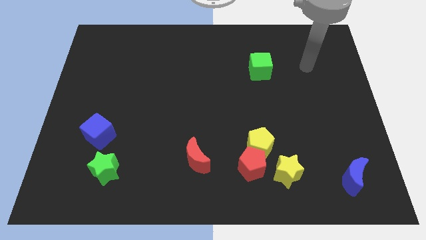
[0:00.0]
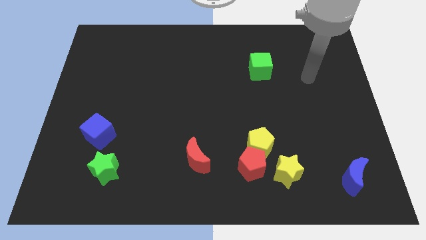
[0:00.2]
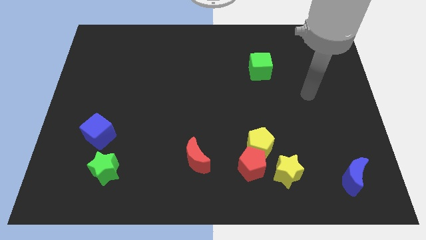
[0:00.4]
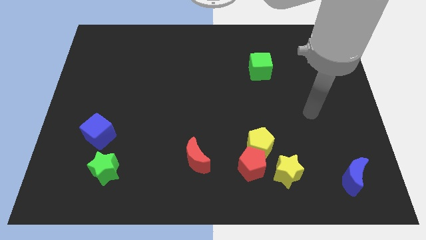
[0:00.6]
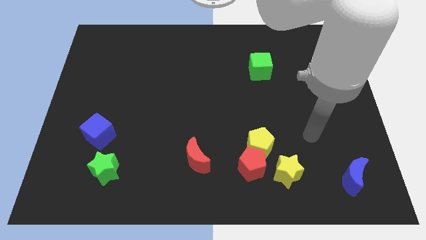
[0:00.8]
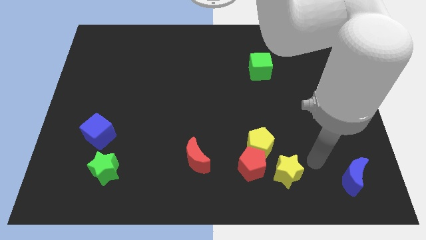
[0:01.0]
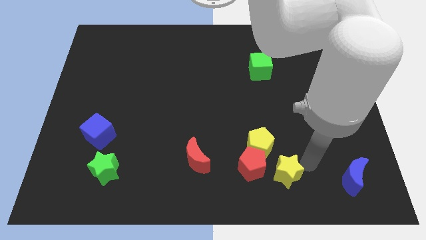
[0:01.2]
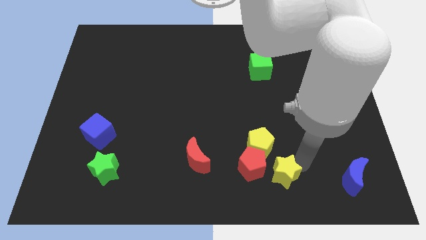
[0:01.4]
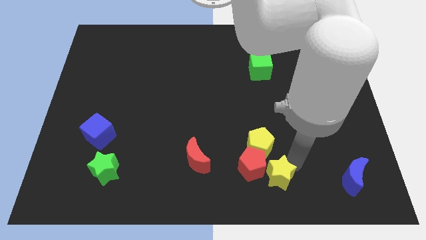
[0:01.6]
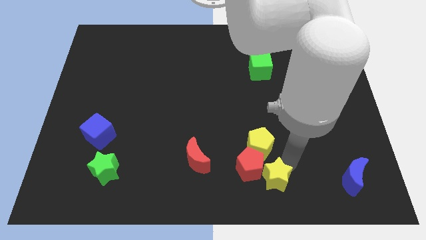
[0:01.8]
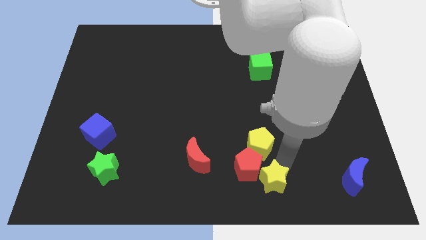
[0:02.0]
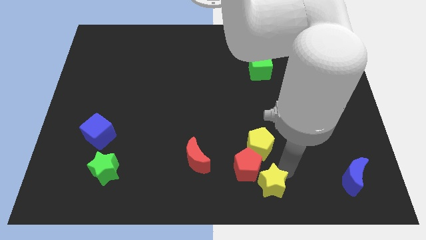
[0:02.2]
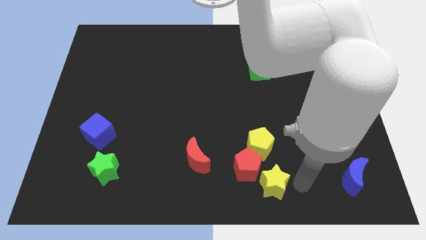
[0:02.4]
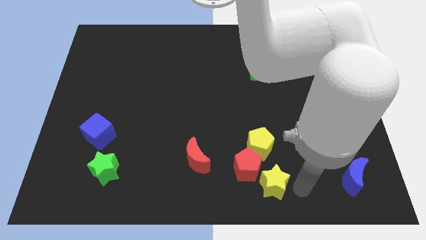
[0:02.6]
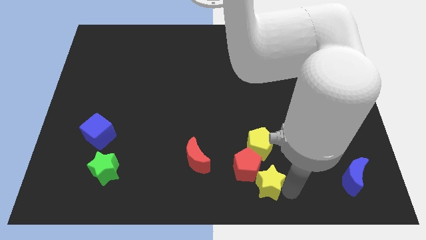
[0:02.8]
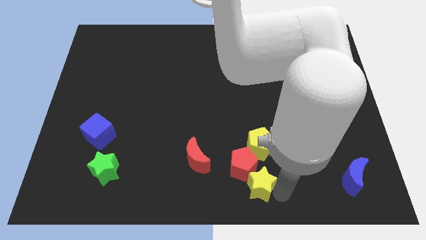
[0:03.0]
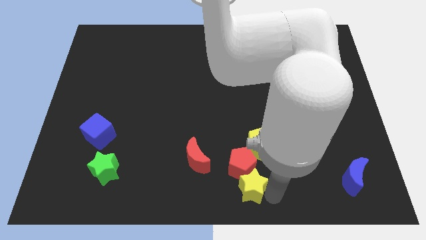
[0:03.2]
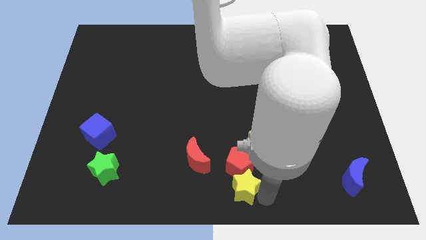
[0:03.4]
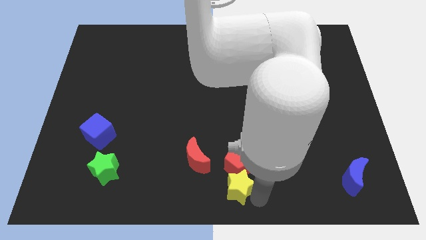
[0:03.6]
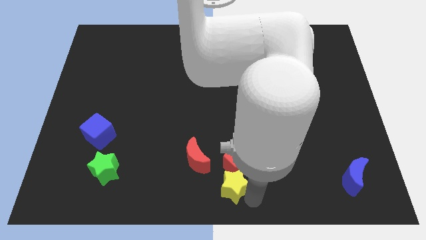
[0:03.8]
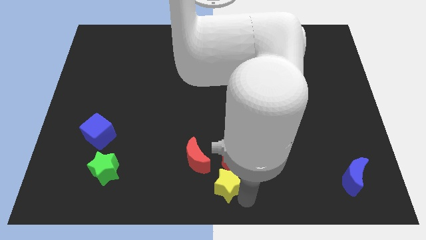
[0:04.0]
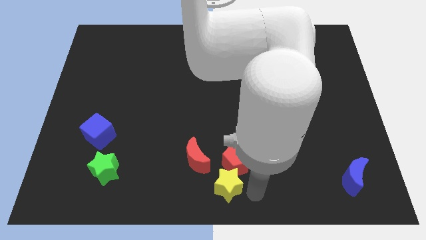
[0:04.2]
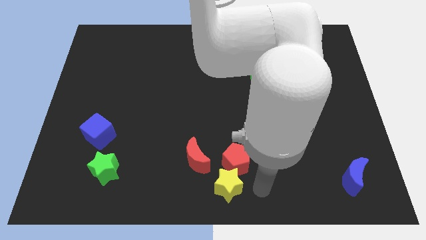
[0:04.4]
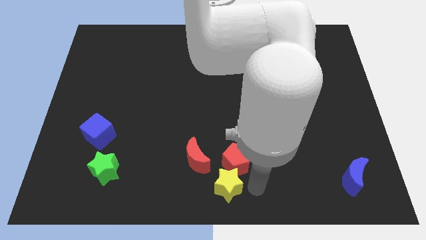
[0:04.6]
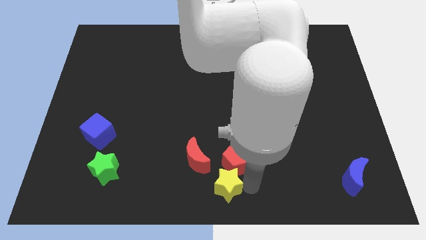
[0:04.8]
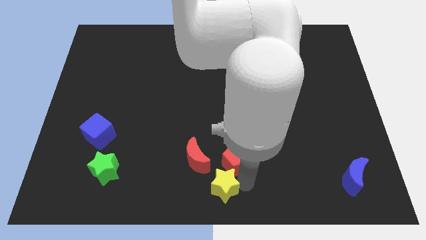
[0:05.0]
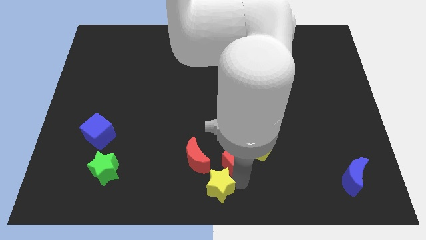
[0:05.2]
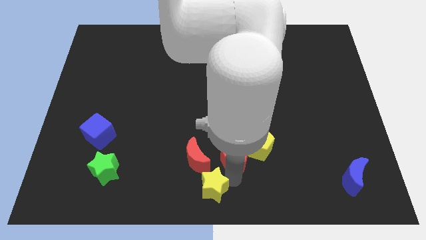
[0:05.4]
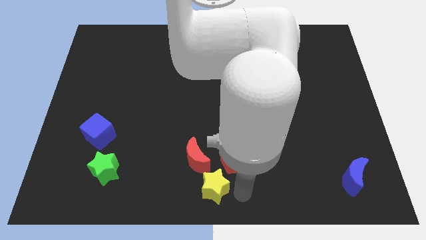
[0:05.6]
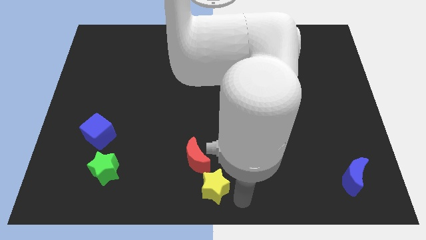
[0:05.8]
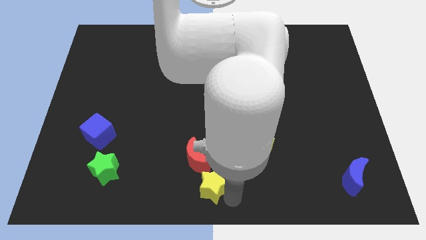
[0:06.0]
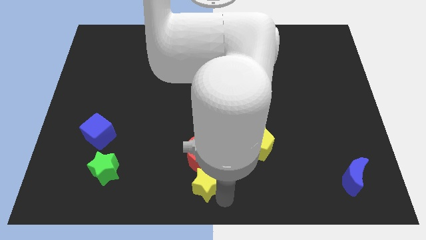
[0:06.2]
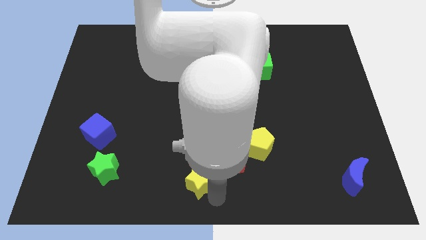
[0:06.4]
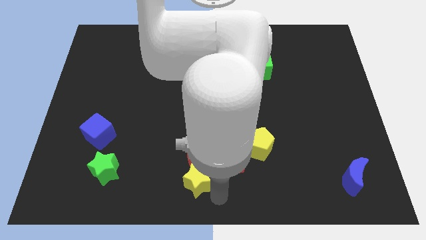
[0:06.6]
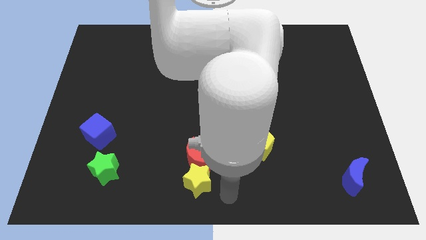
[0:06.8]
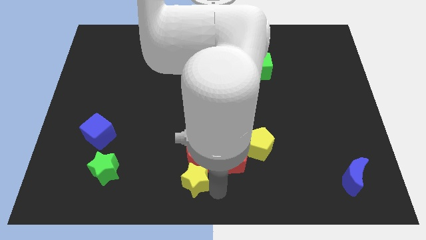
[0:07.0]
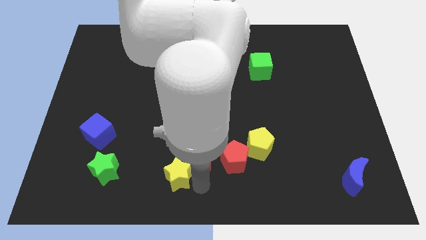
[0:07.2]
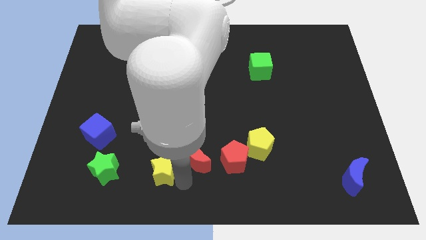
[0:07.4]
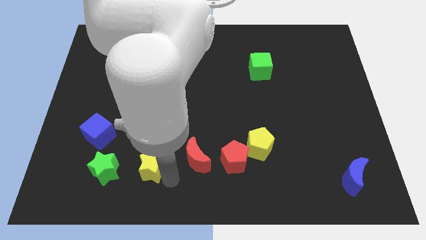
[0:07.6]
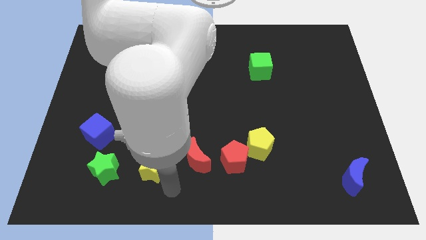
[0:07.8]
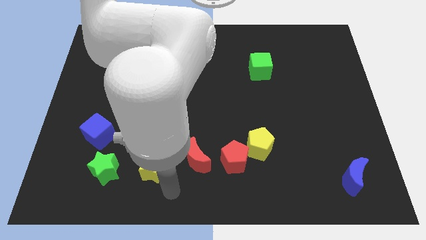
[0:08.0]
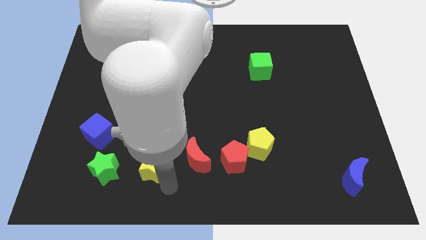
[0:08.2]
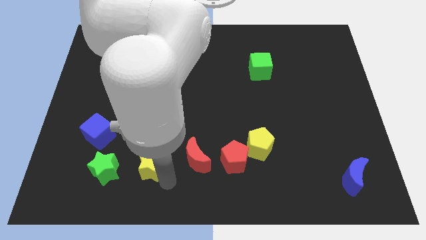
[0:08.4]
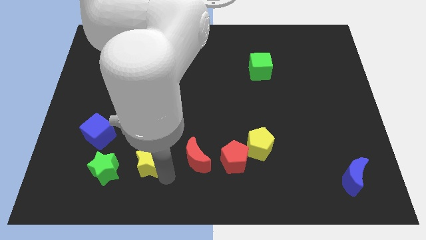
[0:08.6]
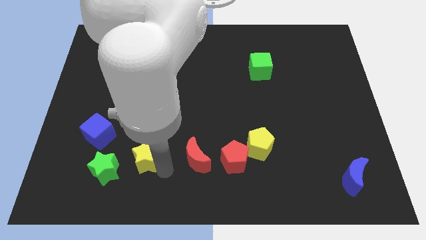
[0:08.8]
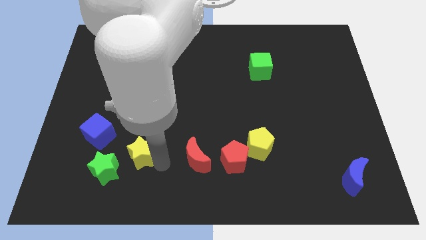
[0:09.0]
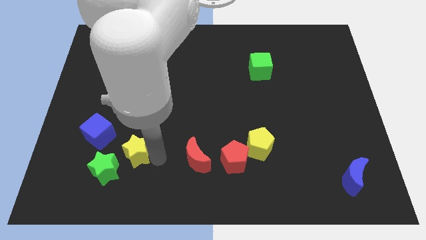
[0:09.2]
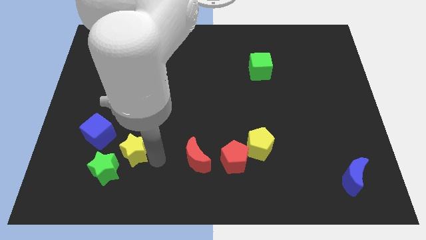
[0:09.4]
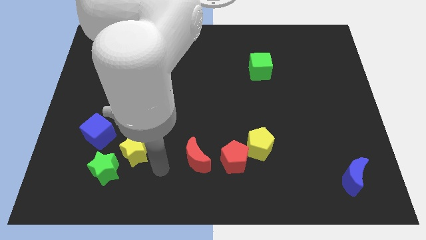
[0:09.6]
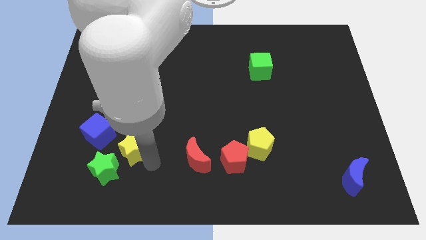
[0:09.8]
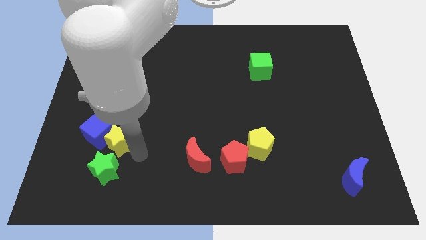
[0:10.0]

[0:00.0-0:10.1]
push the yellow star to the blue cube

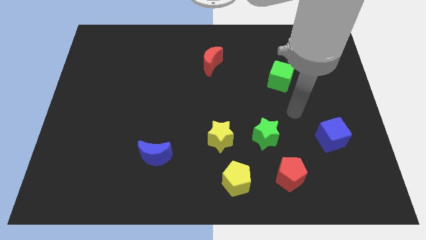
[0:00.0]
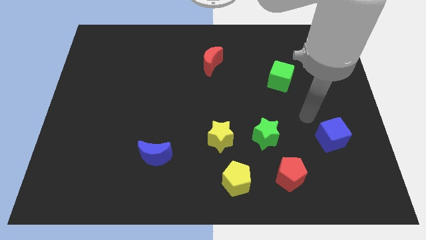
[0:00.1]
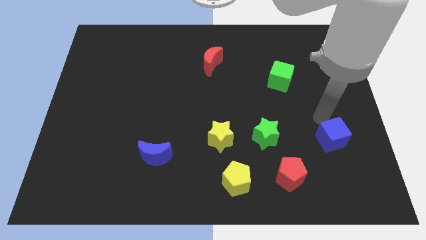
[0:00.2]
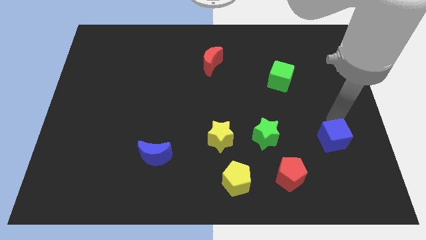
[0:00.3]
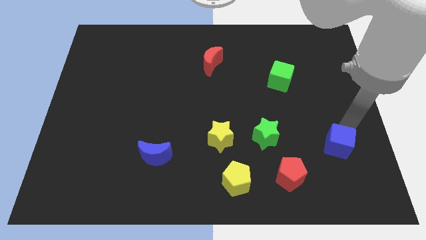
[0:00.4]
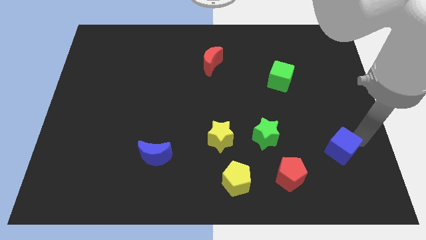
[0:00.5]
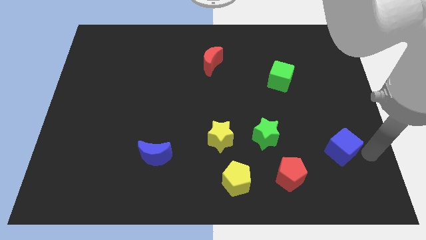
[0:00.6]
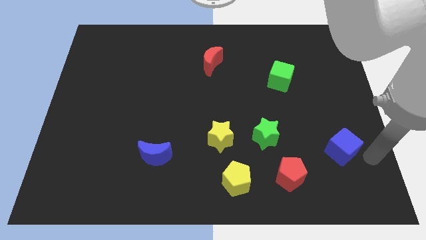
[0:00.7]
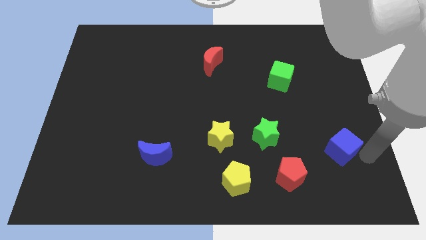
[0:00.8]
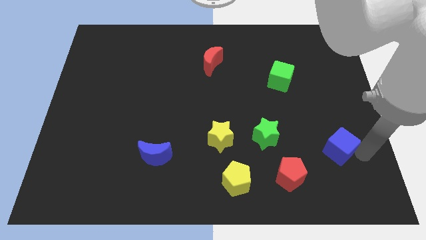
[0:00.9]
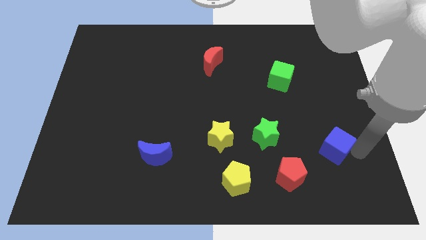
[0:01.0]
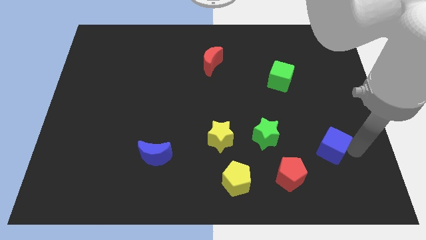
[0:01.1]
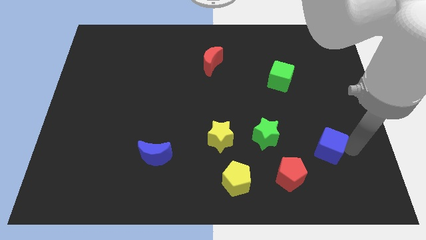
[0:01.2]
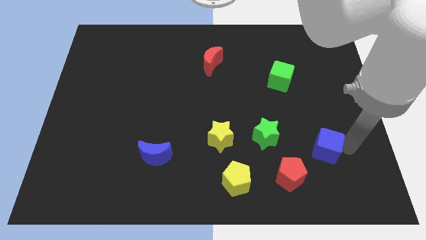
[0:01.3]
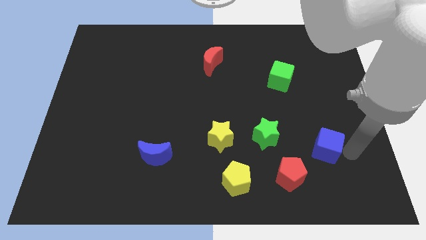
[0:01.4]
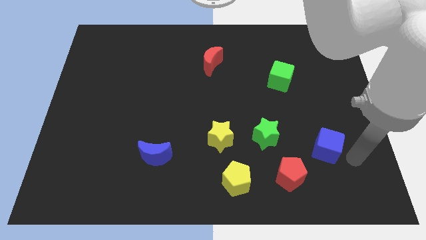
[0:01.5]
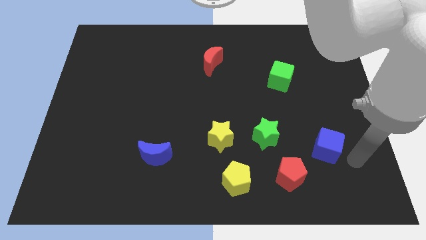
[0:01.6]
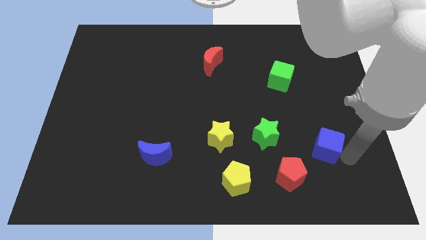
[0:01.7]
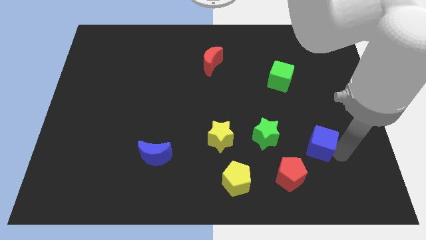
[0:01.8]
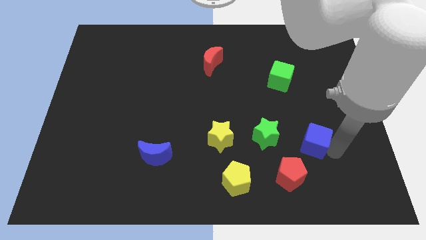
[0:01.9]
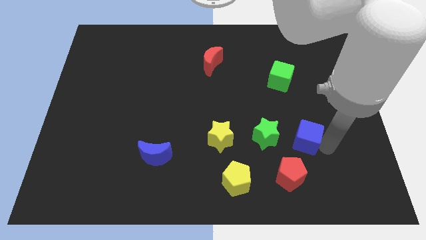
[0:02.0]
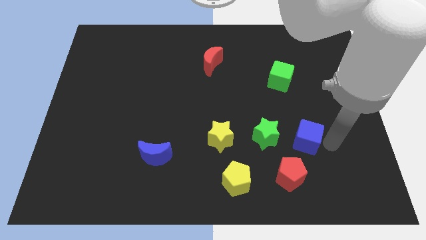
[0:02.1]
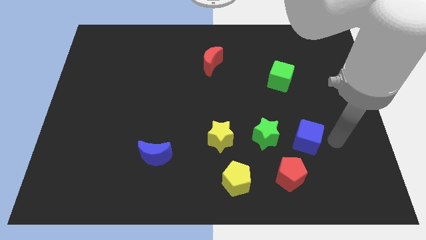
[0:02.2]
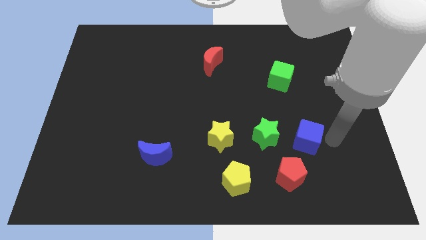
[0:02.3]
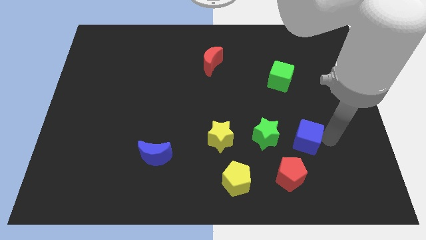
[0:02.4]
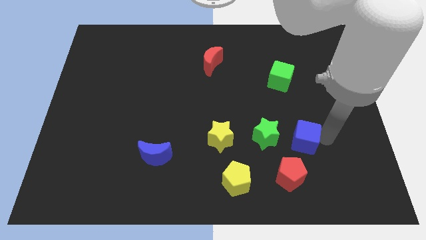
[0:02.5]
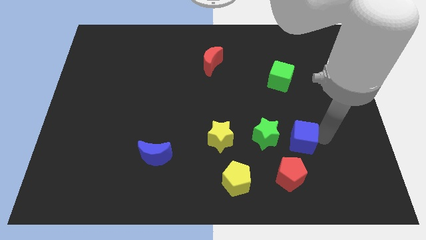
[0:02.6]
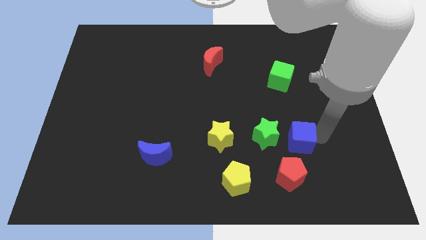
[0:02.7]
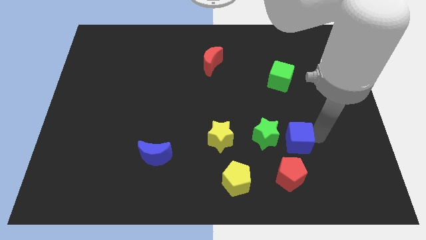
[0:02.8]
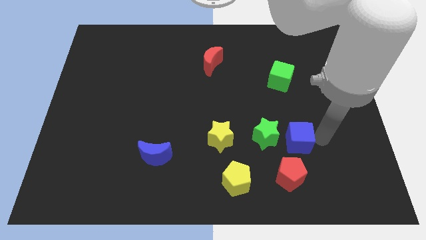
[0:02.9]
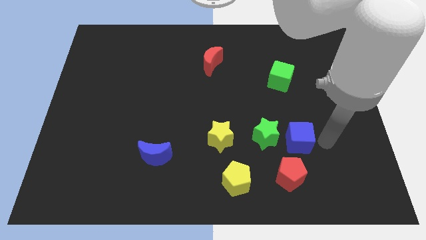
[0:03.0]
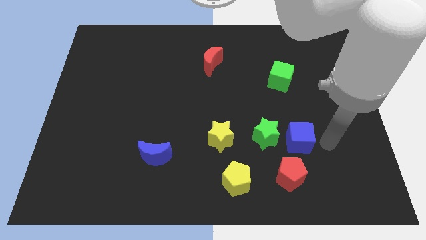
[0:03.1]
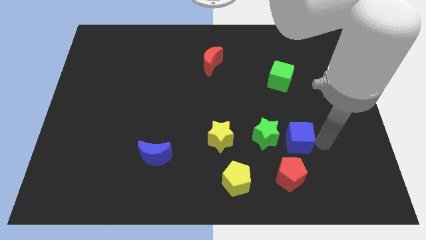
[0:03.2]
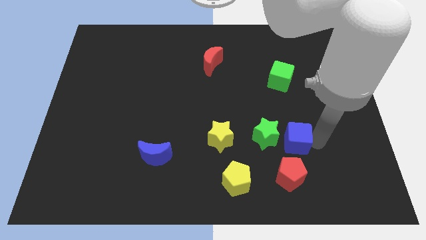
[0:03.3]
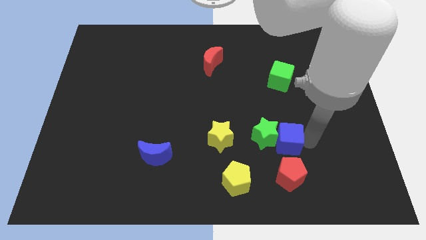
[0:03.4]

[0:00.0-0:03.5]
move the blue cube towards the green star
